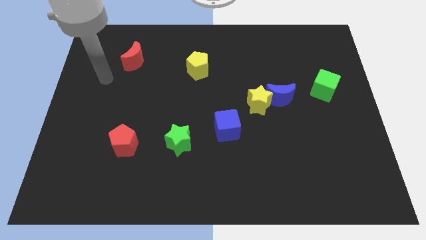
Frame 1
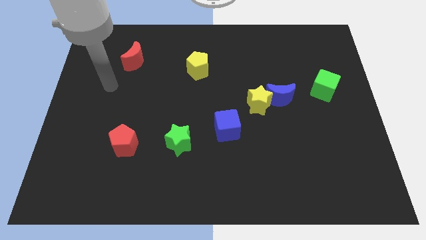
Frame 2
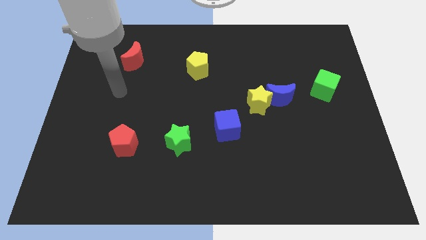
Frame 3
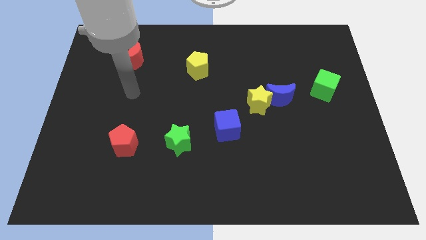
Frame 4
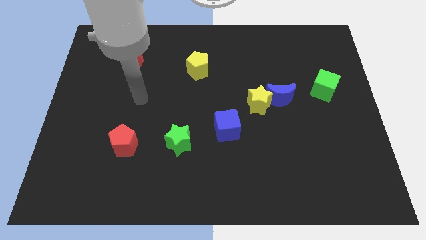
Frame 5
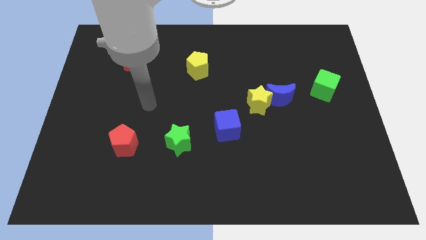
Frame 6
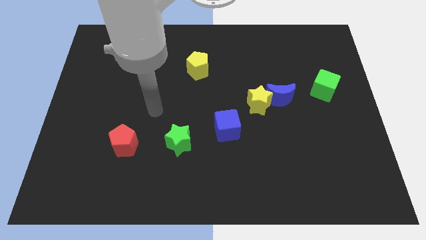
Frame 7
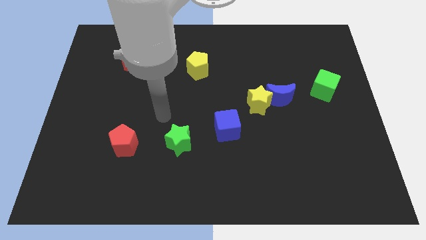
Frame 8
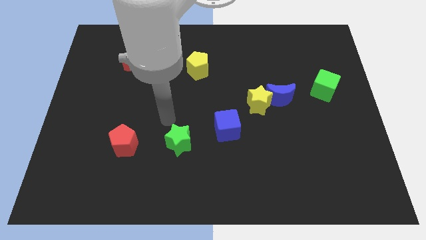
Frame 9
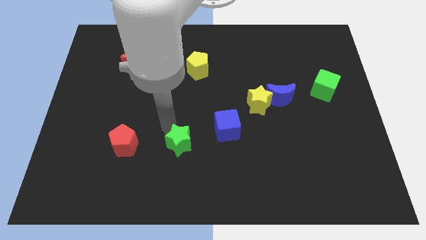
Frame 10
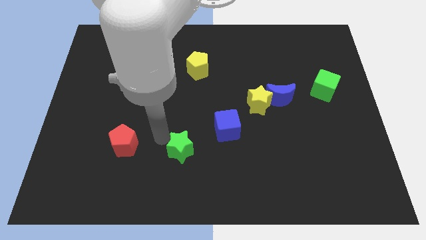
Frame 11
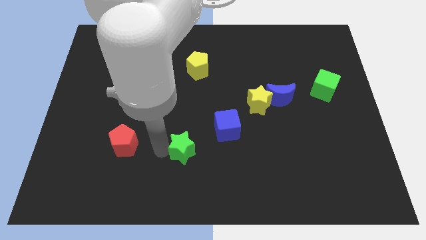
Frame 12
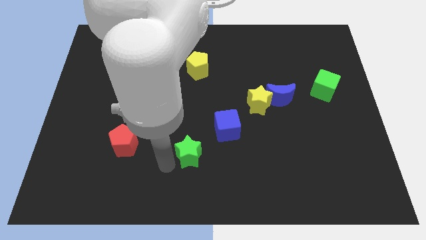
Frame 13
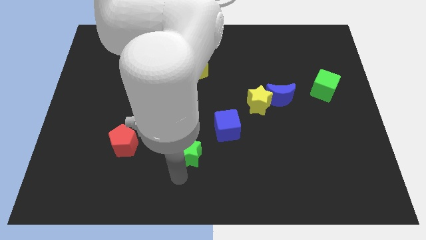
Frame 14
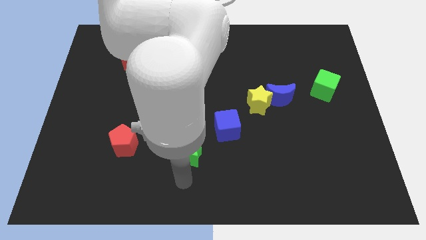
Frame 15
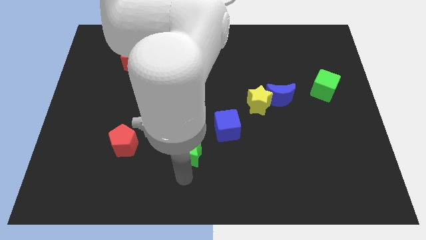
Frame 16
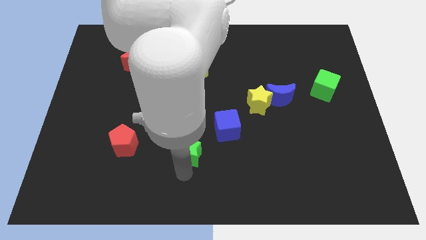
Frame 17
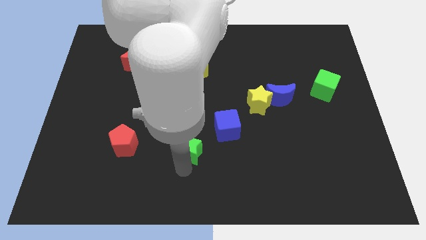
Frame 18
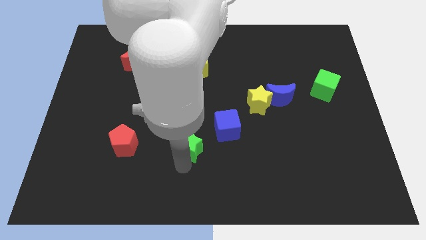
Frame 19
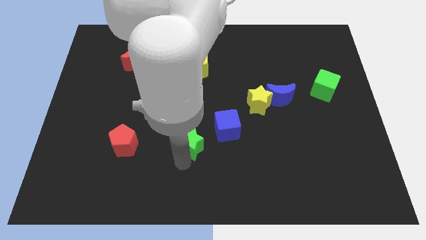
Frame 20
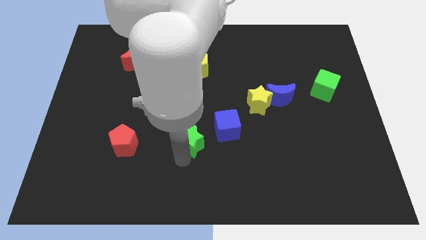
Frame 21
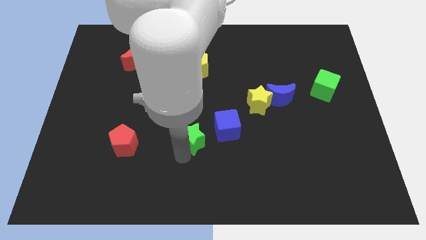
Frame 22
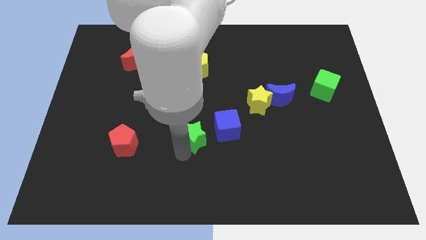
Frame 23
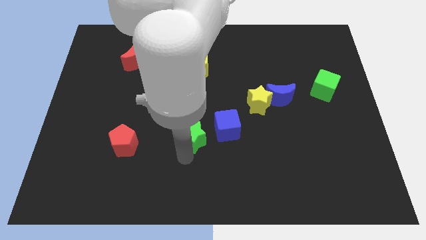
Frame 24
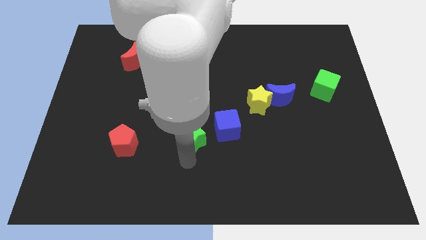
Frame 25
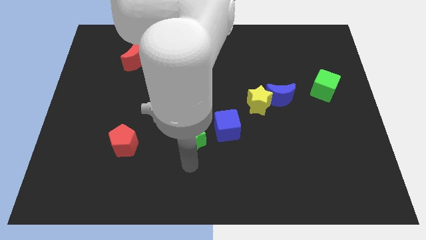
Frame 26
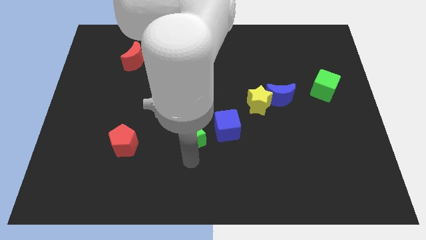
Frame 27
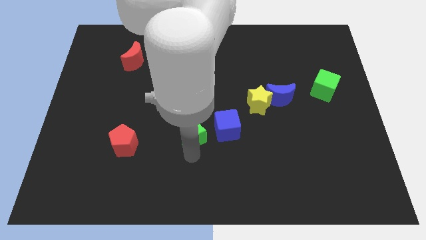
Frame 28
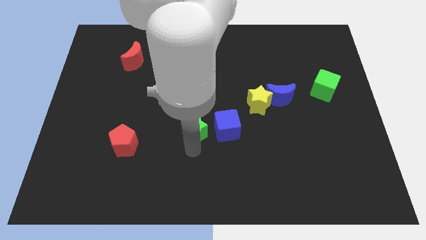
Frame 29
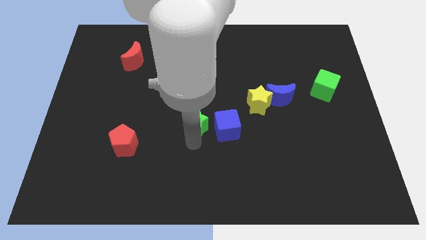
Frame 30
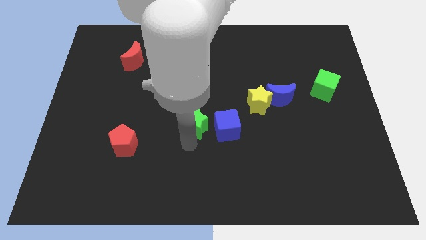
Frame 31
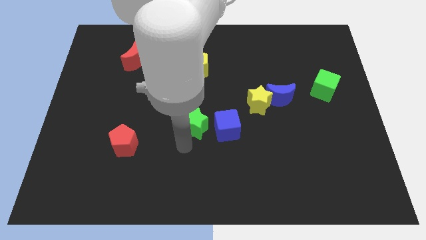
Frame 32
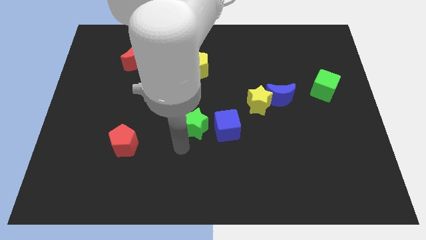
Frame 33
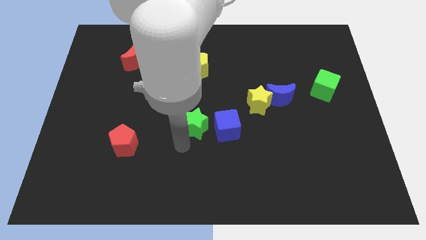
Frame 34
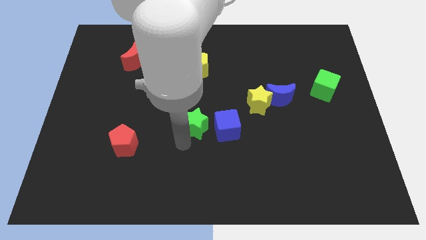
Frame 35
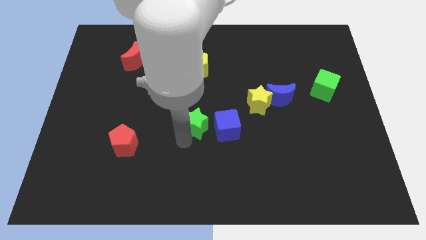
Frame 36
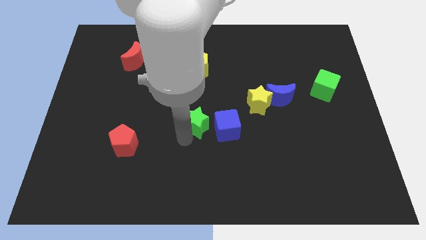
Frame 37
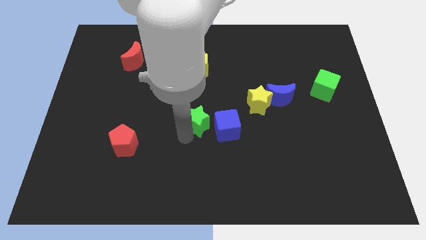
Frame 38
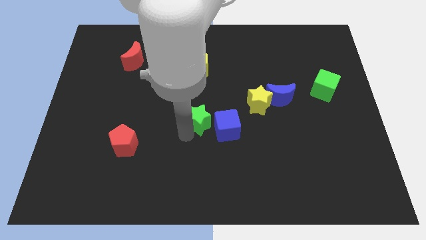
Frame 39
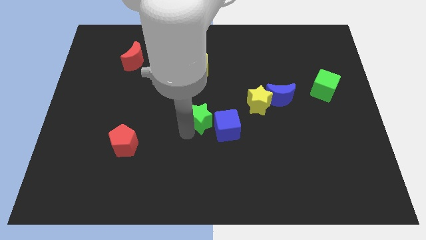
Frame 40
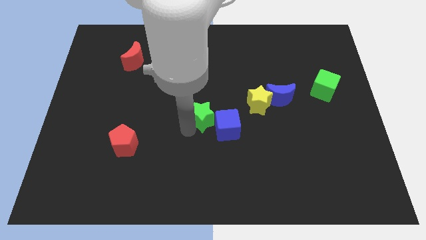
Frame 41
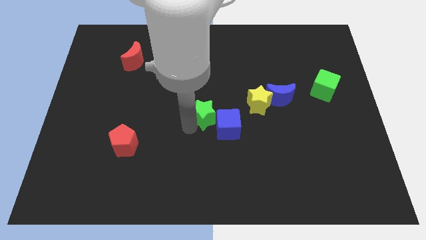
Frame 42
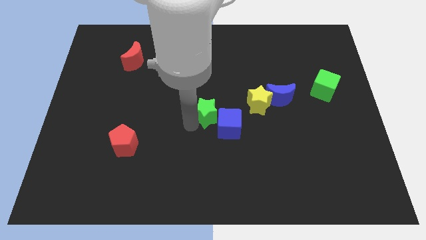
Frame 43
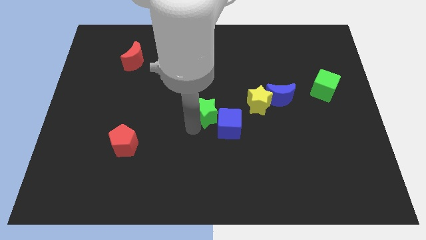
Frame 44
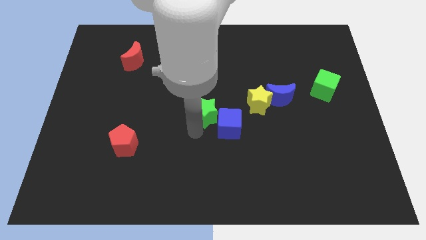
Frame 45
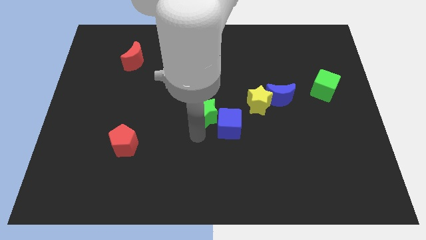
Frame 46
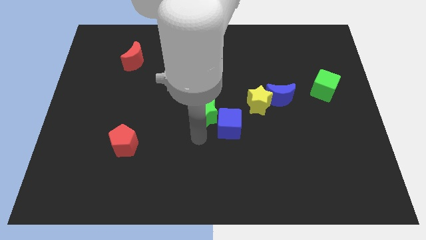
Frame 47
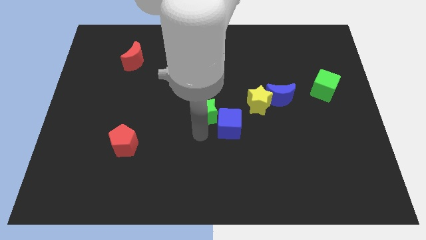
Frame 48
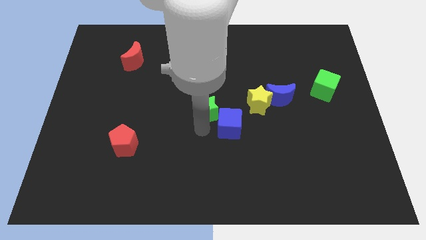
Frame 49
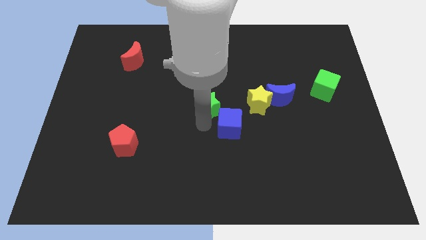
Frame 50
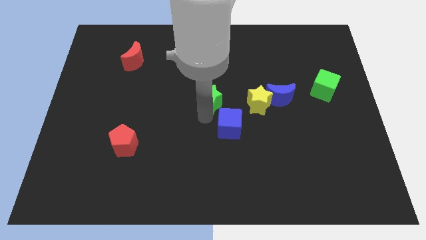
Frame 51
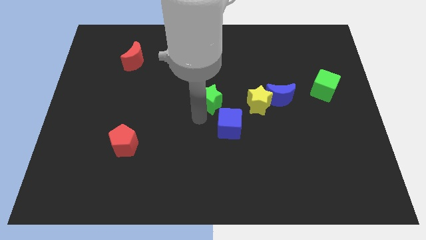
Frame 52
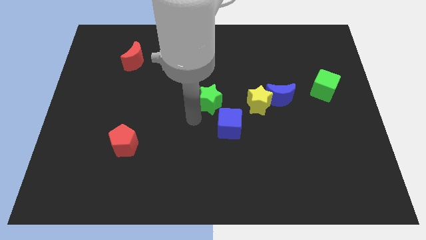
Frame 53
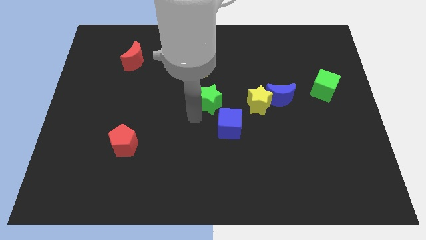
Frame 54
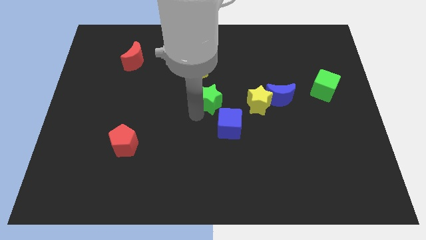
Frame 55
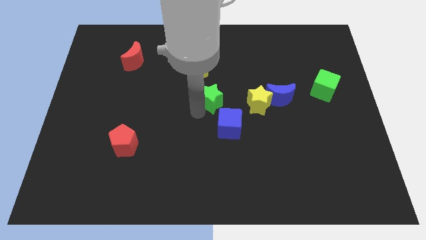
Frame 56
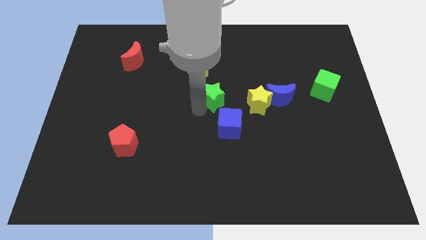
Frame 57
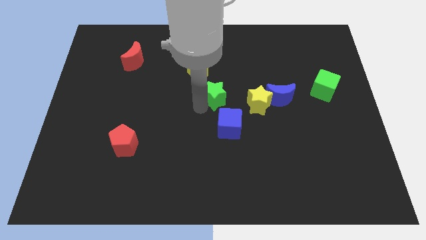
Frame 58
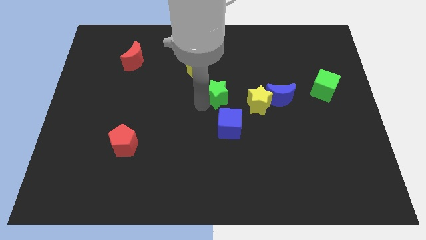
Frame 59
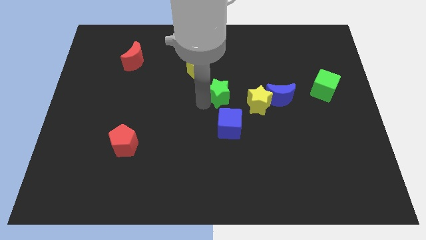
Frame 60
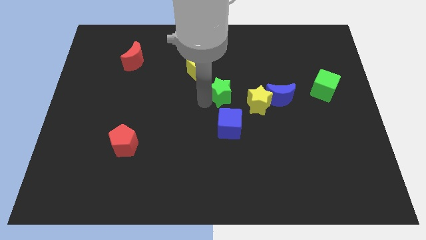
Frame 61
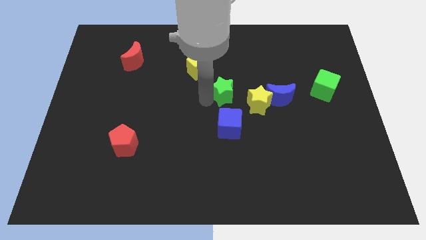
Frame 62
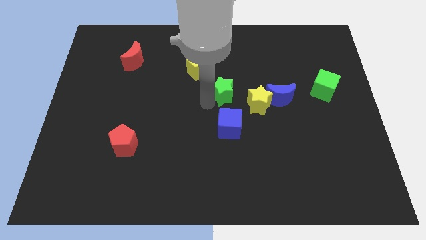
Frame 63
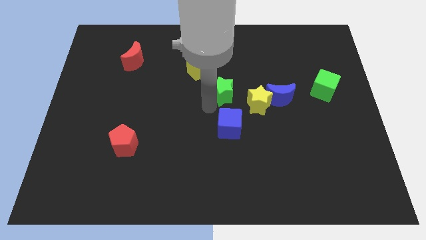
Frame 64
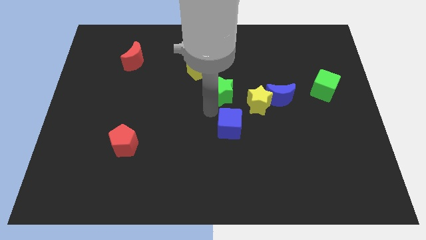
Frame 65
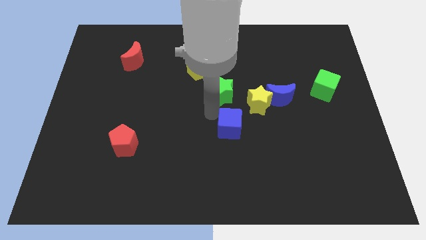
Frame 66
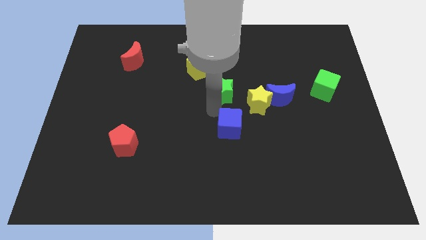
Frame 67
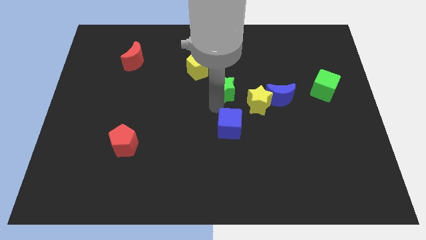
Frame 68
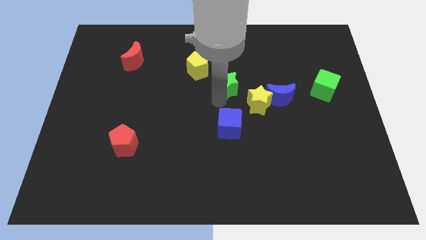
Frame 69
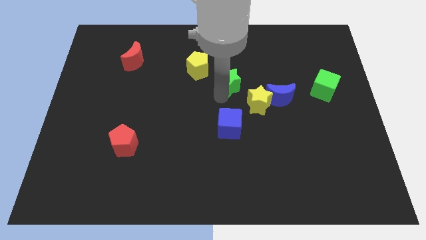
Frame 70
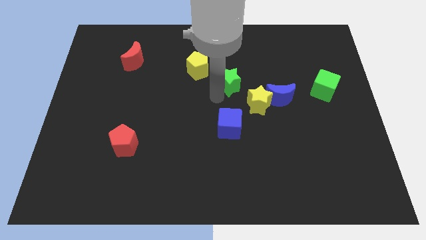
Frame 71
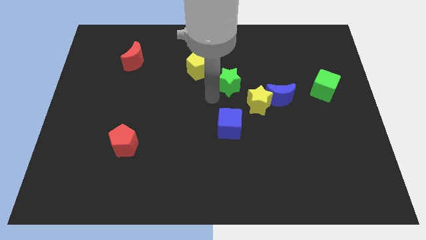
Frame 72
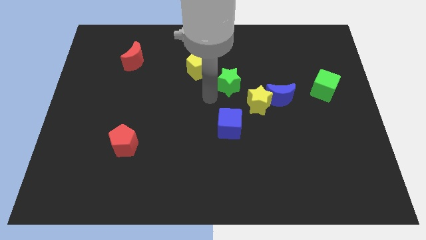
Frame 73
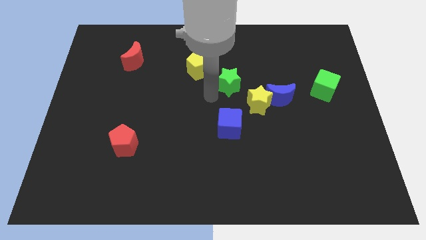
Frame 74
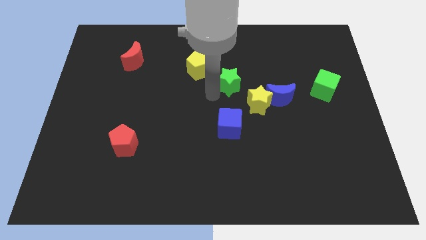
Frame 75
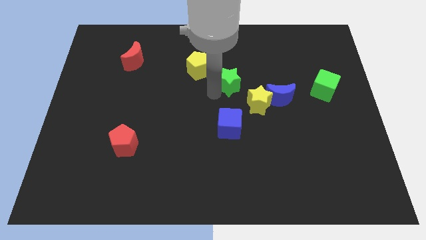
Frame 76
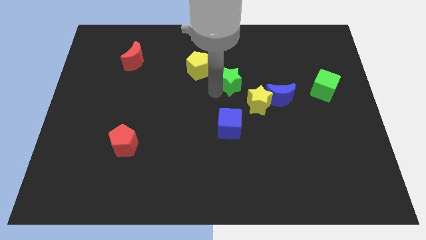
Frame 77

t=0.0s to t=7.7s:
push the green star upwards and then to the right

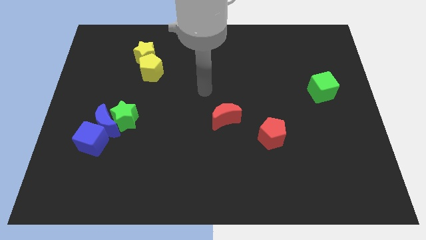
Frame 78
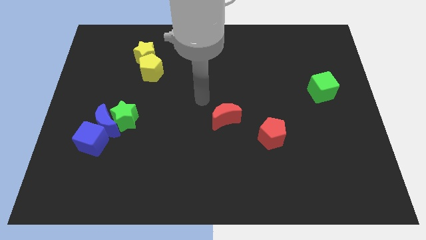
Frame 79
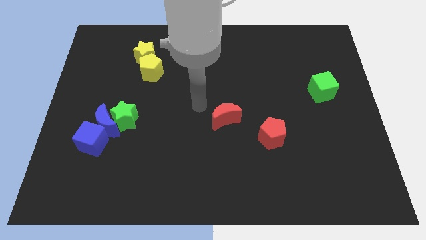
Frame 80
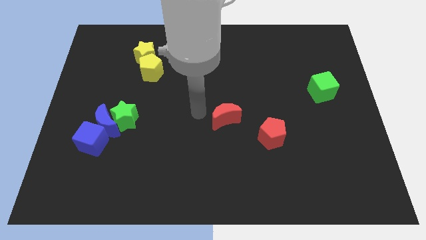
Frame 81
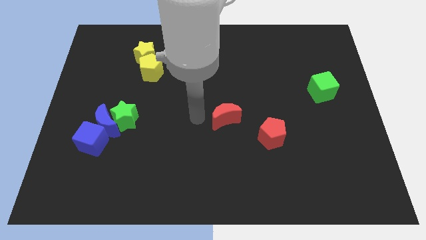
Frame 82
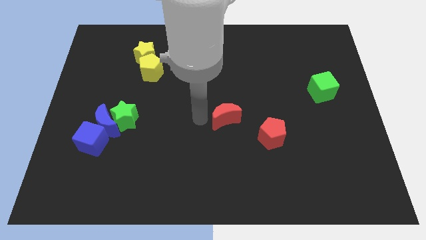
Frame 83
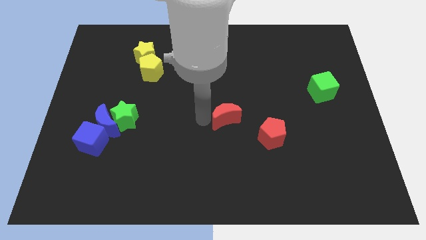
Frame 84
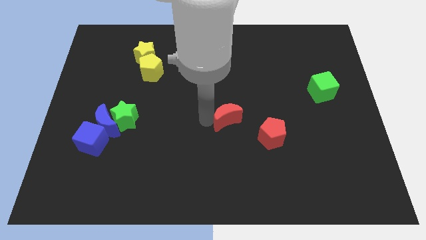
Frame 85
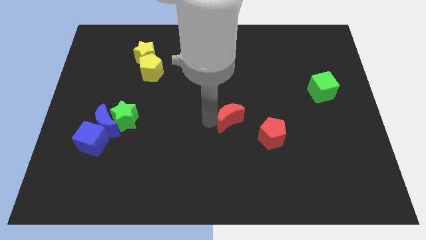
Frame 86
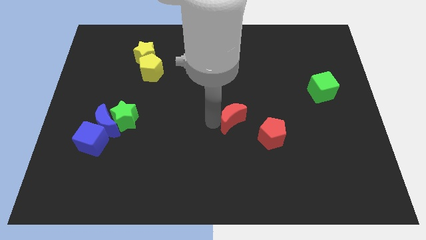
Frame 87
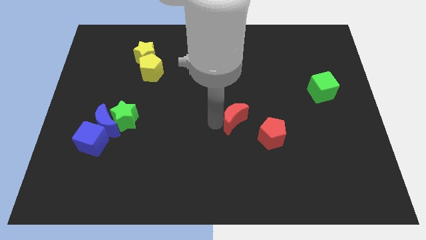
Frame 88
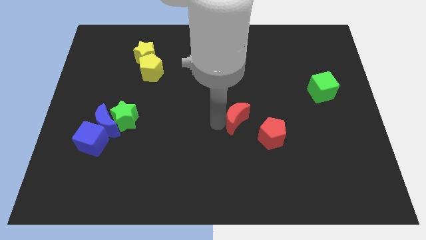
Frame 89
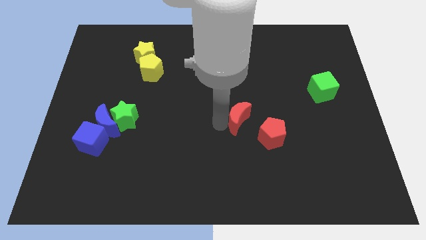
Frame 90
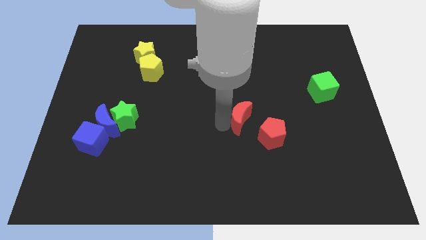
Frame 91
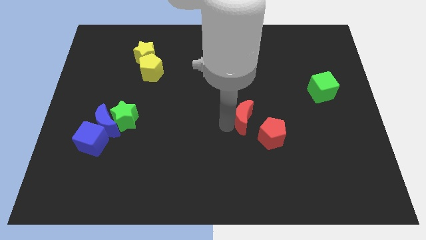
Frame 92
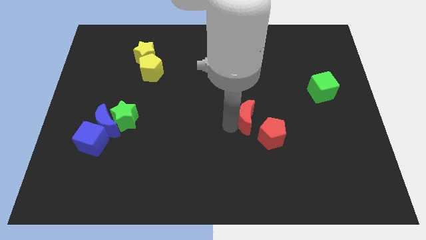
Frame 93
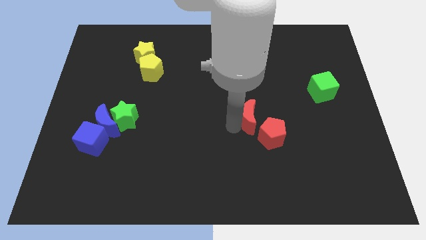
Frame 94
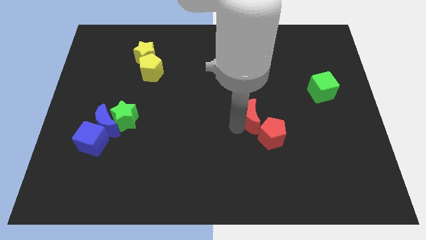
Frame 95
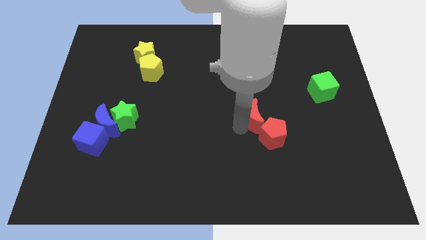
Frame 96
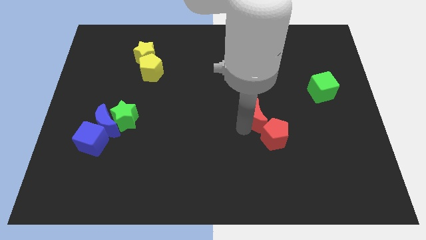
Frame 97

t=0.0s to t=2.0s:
slide the red moon a bit to the right
